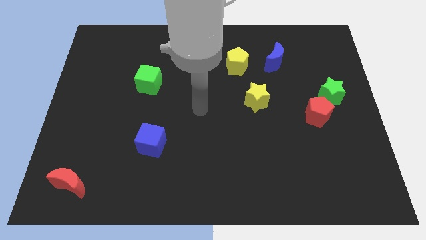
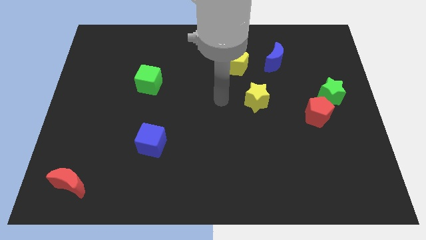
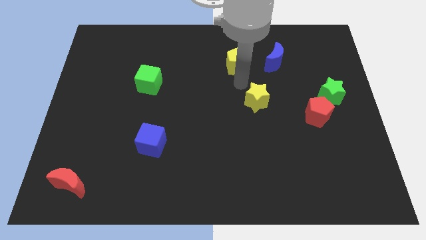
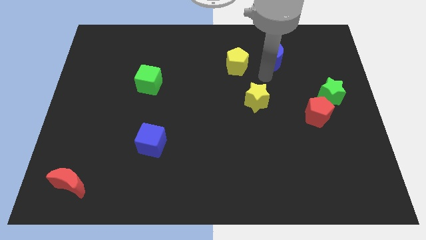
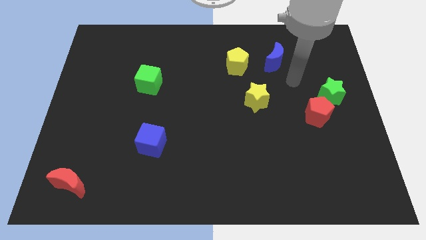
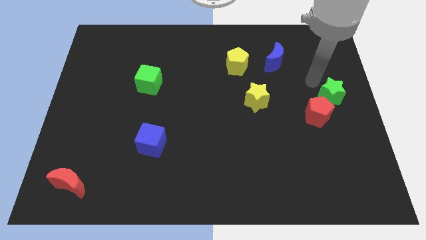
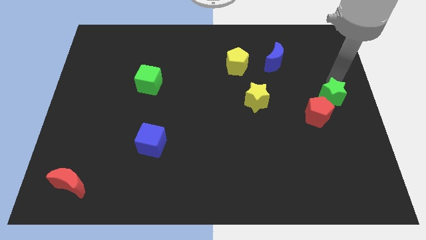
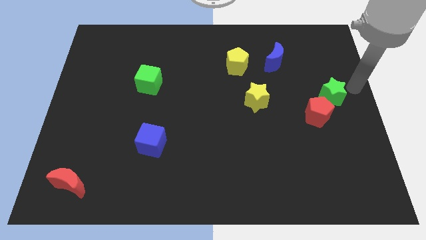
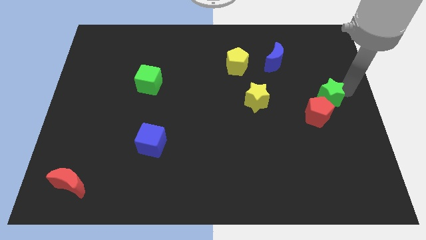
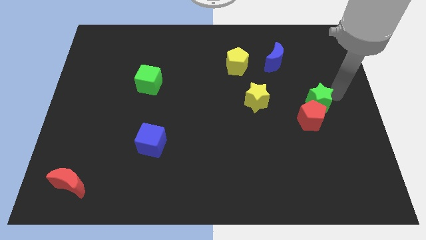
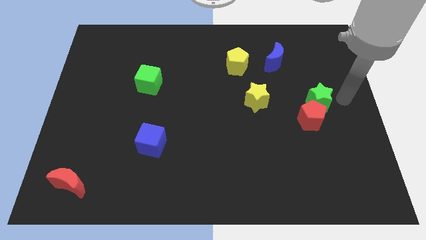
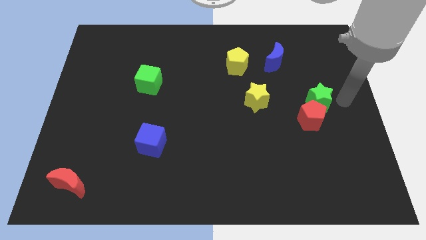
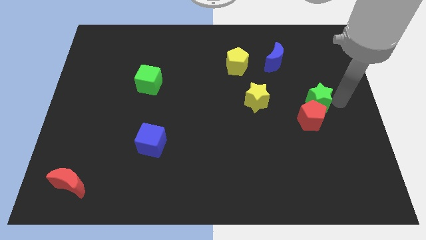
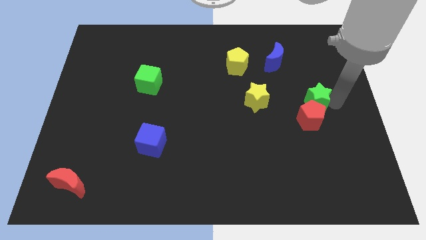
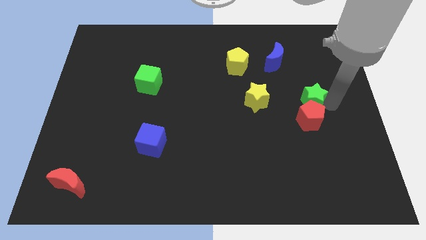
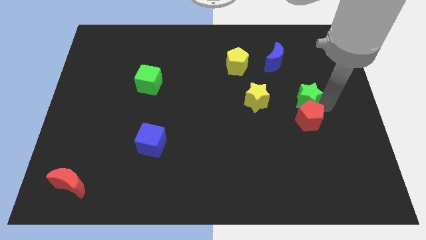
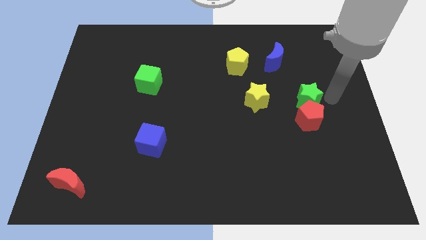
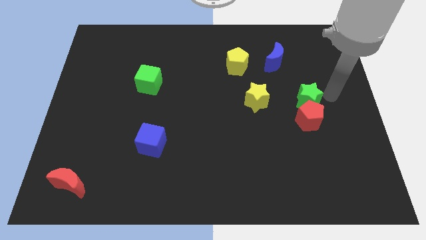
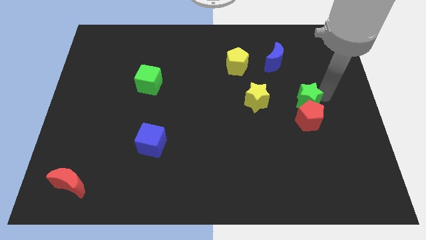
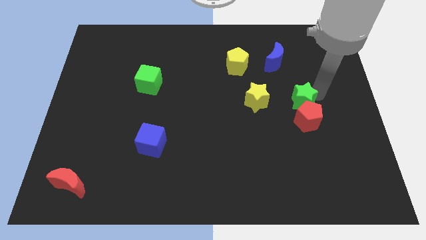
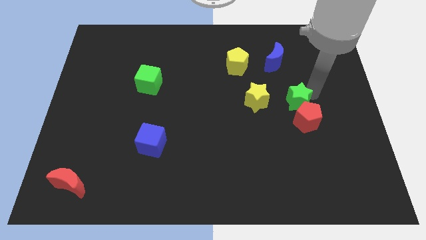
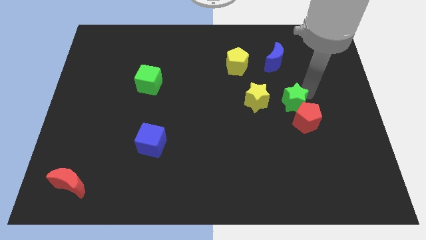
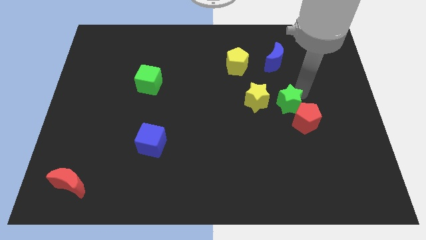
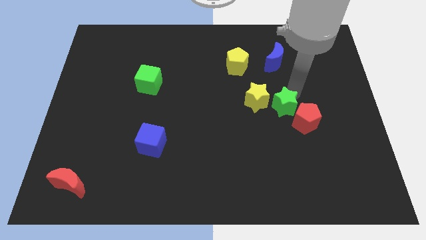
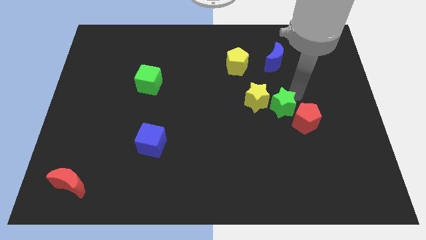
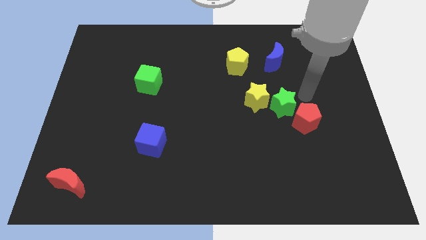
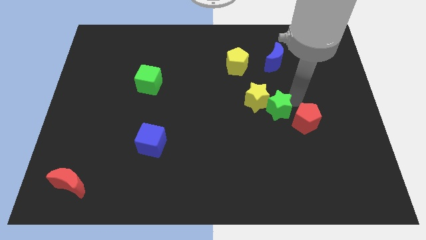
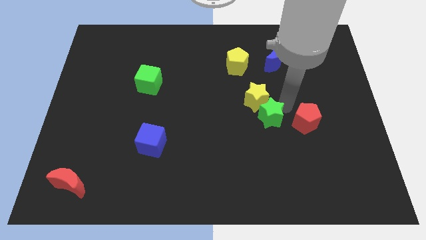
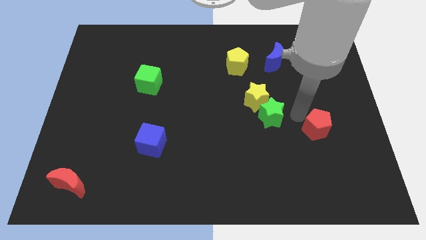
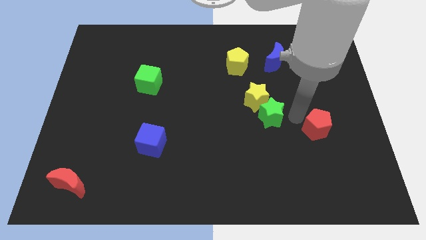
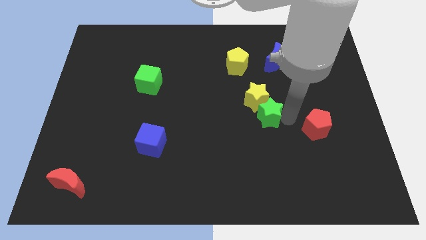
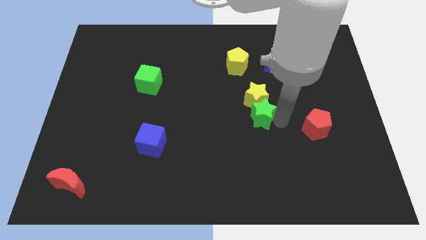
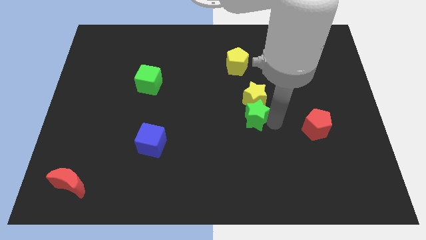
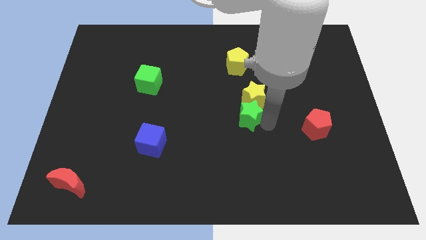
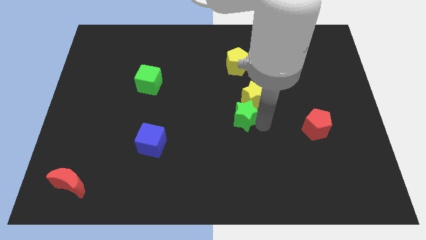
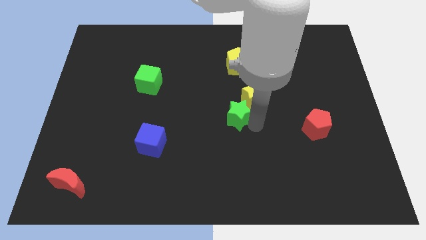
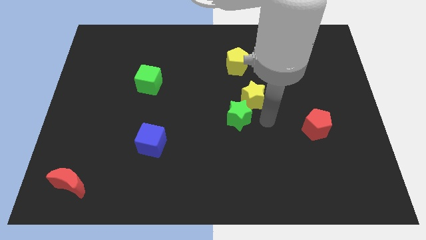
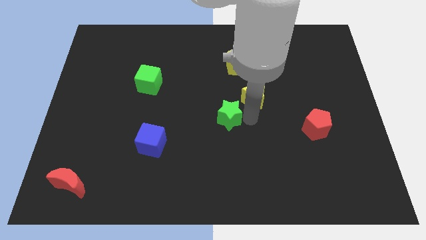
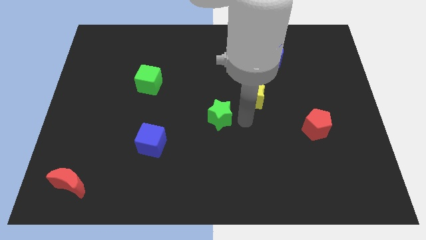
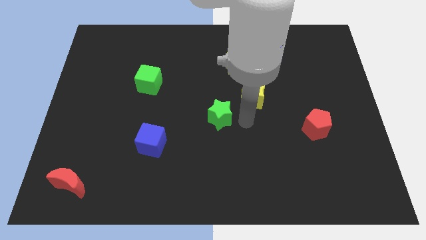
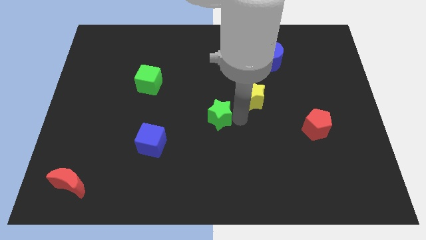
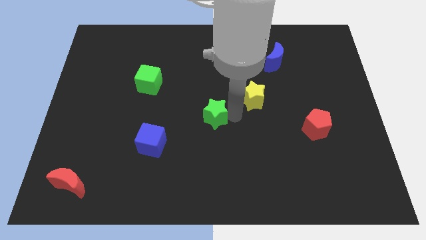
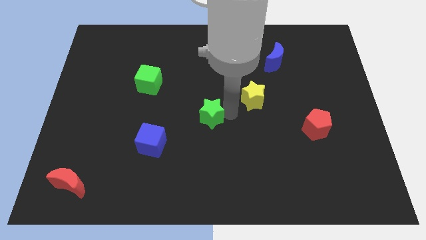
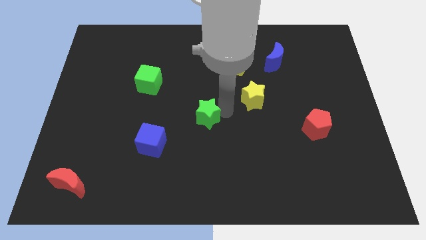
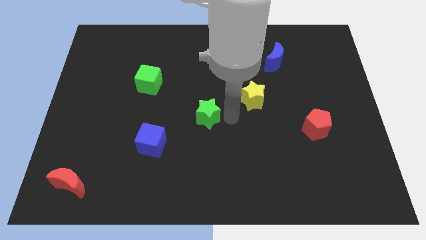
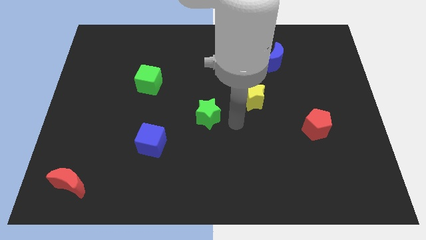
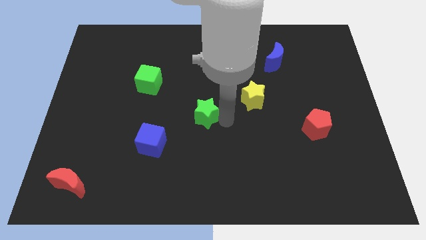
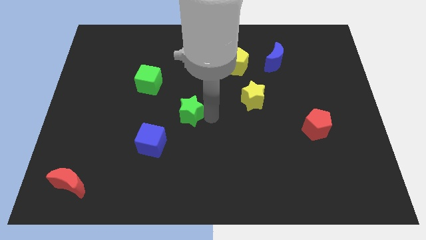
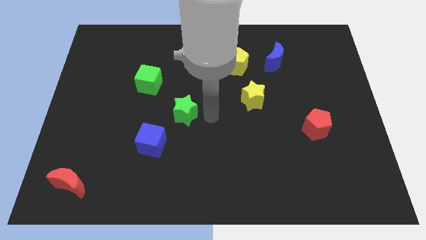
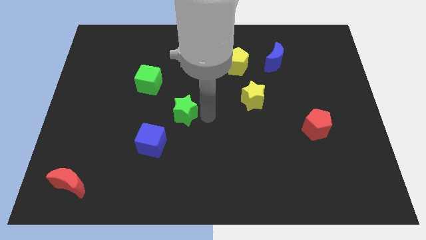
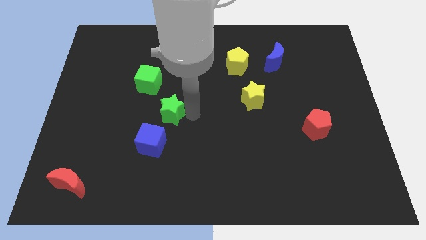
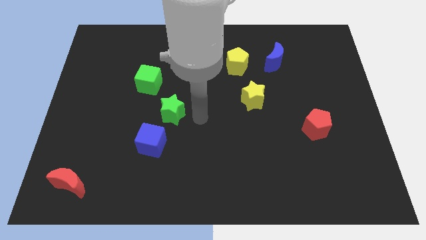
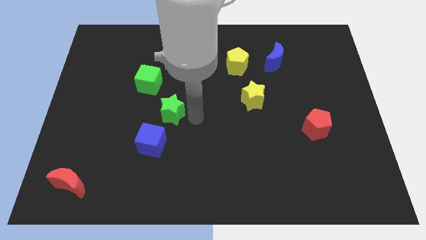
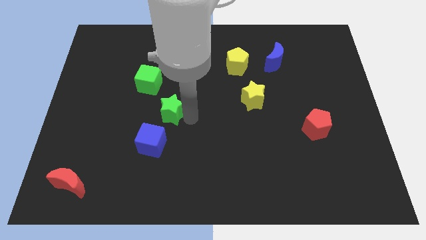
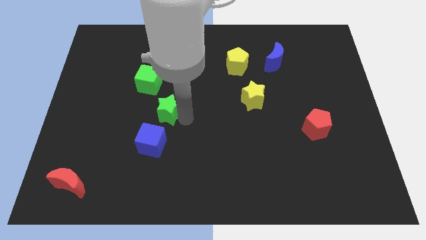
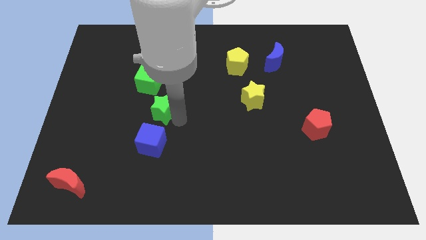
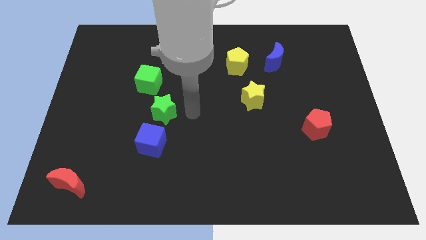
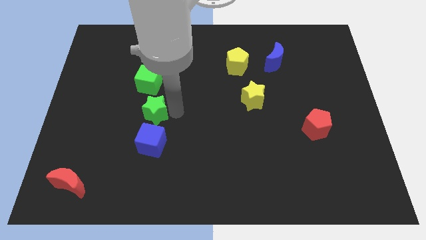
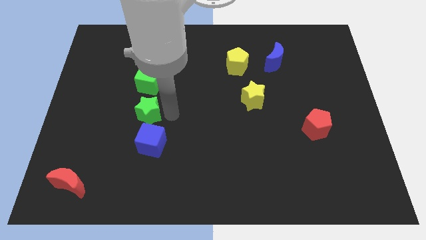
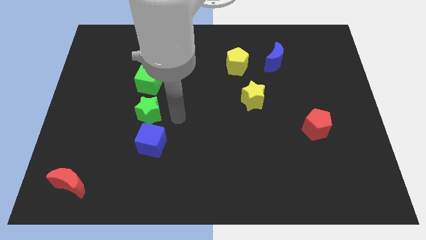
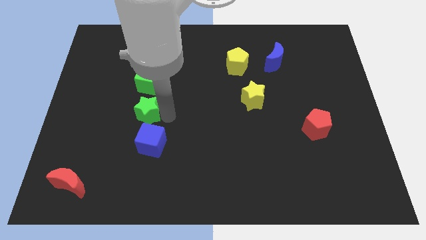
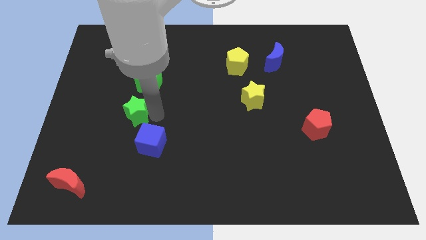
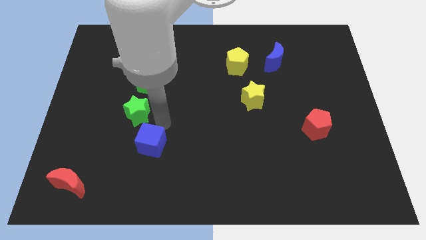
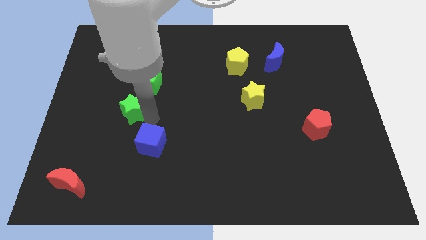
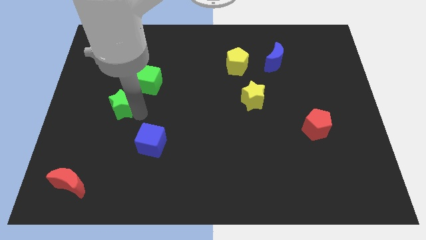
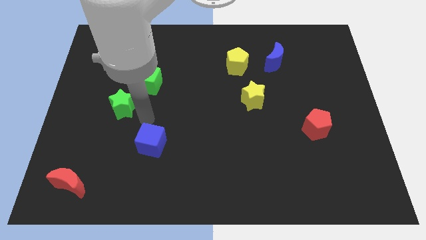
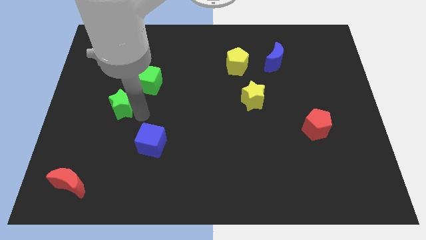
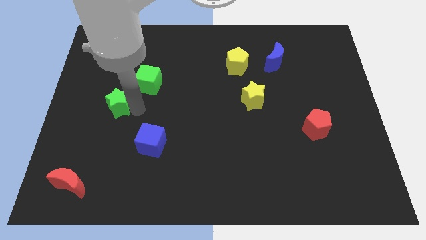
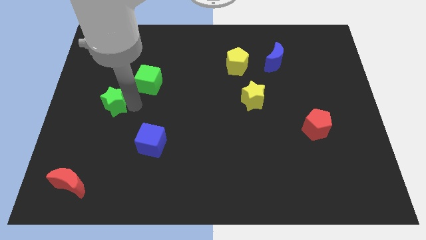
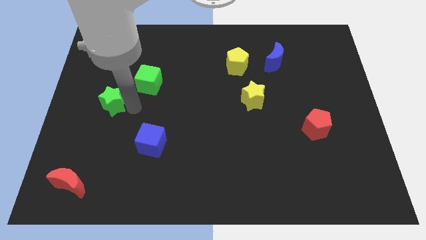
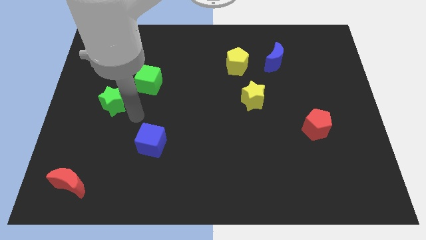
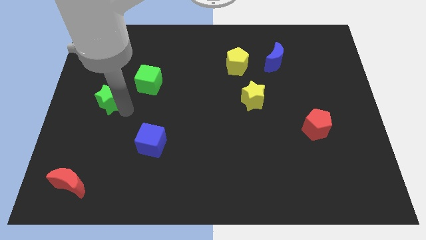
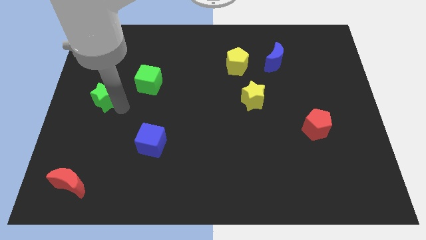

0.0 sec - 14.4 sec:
move the green star to the left side
